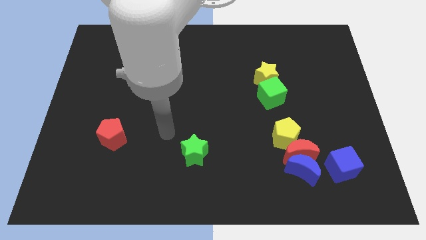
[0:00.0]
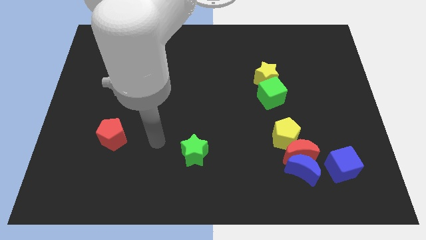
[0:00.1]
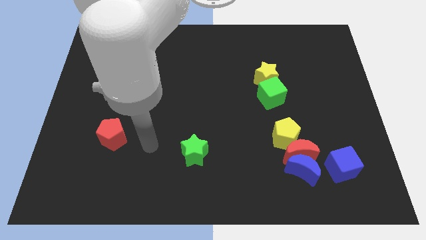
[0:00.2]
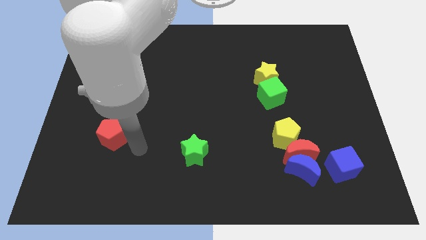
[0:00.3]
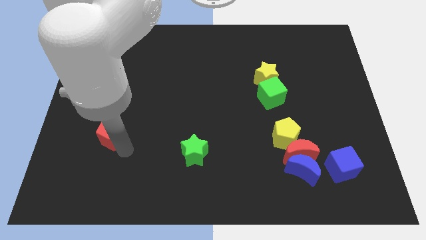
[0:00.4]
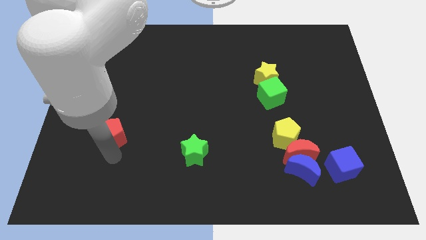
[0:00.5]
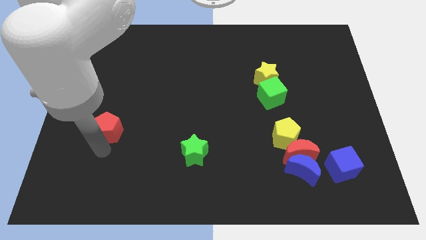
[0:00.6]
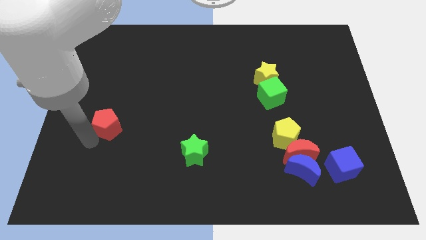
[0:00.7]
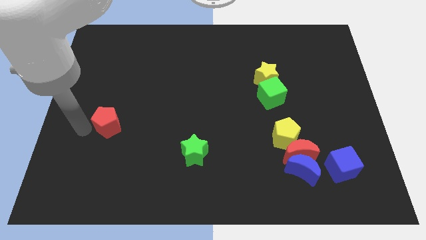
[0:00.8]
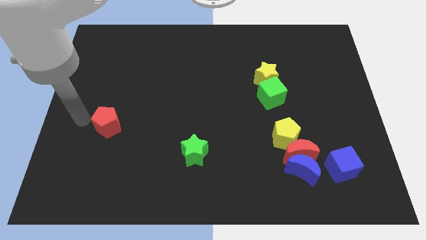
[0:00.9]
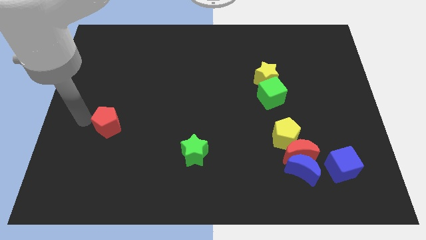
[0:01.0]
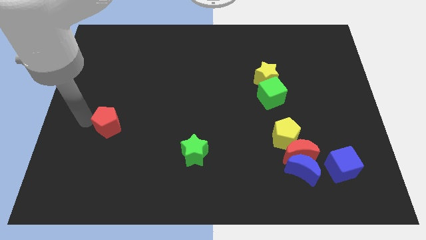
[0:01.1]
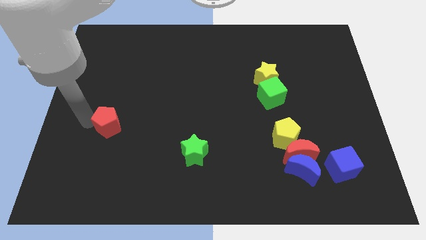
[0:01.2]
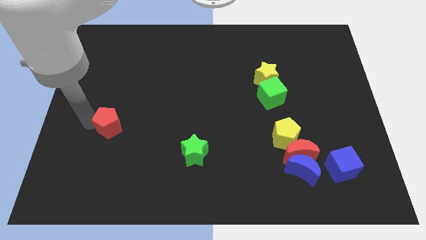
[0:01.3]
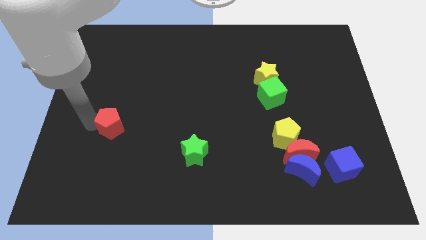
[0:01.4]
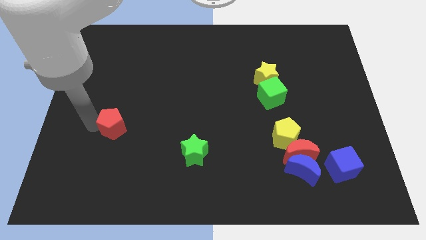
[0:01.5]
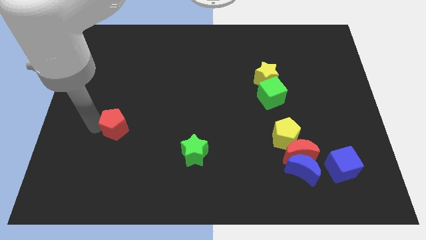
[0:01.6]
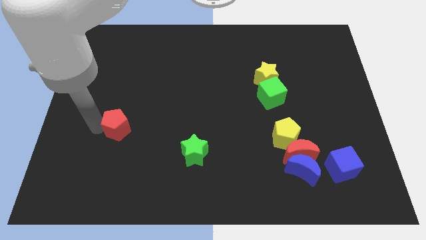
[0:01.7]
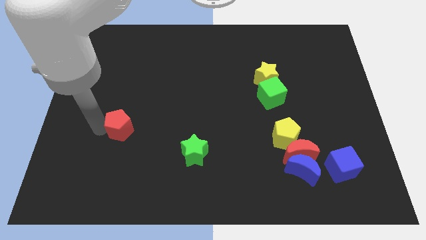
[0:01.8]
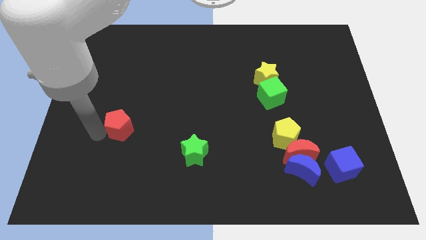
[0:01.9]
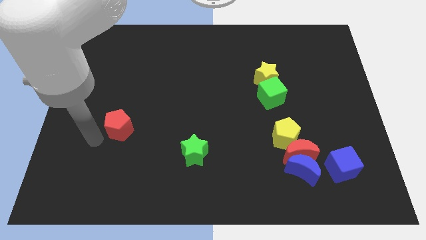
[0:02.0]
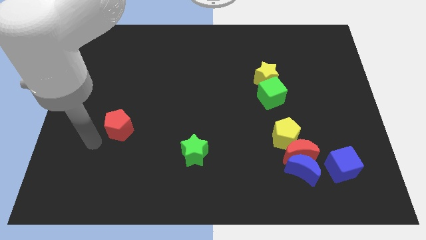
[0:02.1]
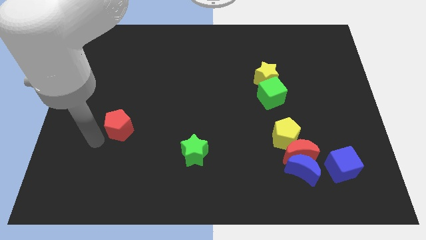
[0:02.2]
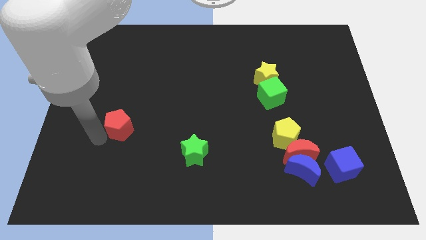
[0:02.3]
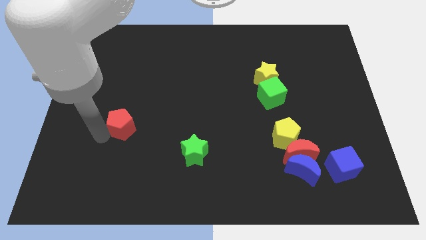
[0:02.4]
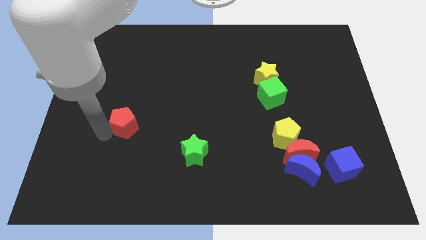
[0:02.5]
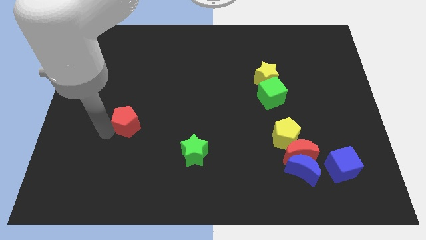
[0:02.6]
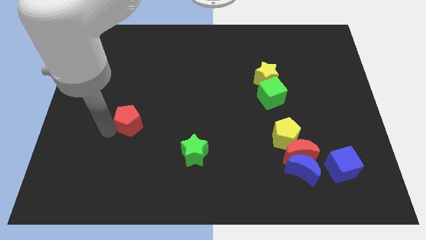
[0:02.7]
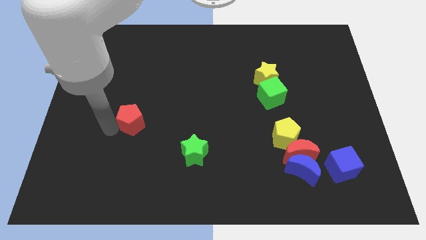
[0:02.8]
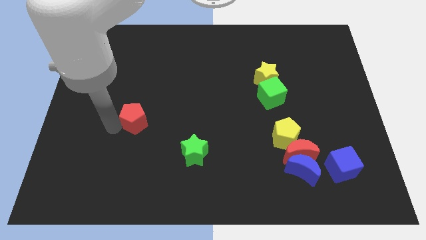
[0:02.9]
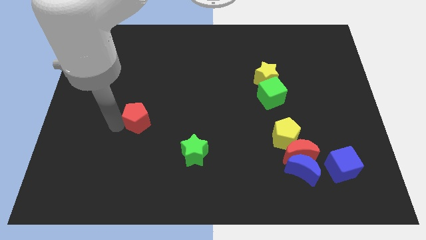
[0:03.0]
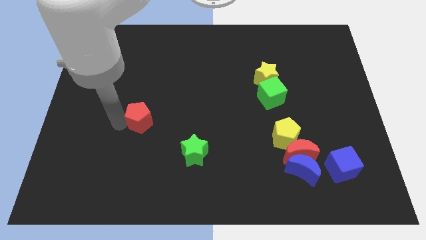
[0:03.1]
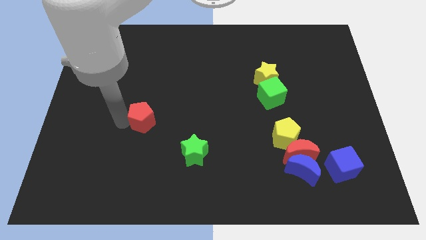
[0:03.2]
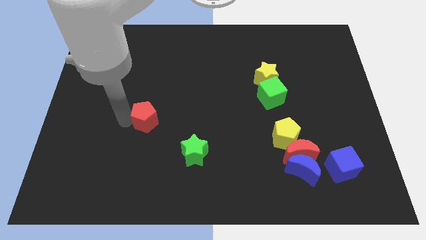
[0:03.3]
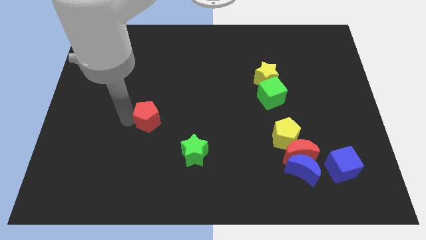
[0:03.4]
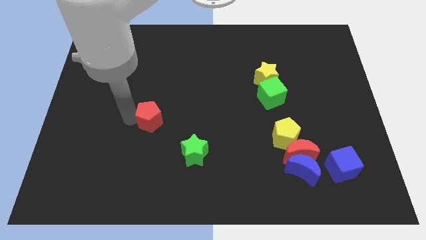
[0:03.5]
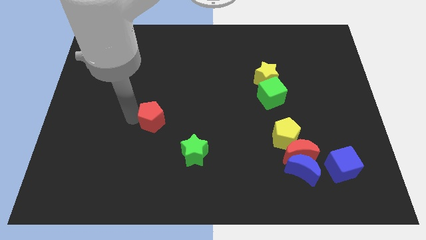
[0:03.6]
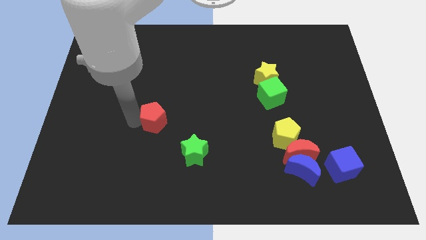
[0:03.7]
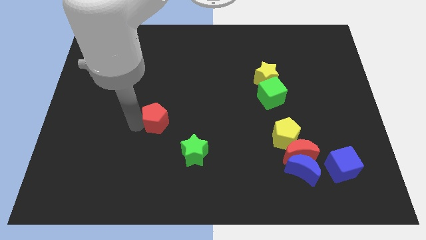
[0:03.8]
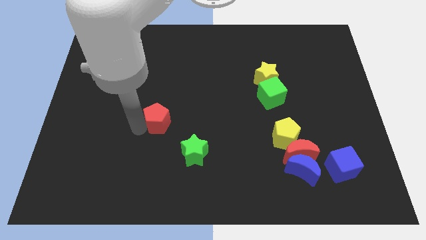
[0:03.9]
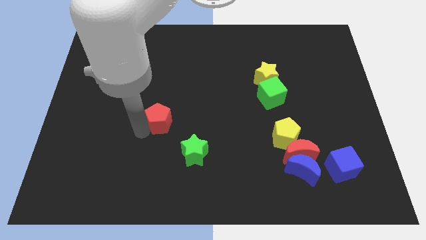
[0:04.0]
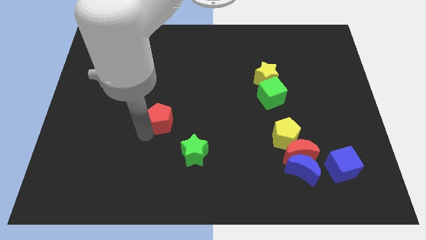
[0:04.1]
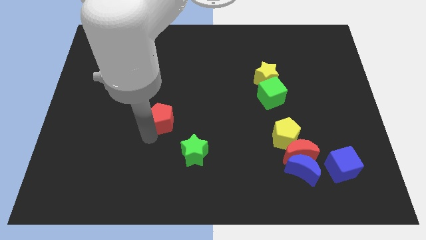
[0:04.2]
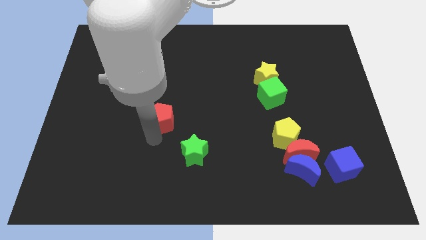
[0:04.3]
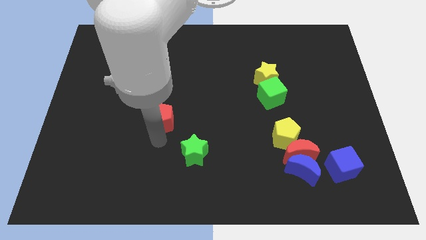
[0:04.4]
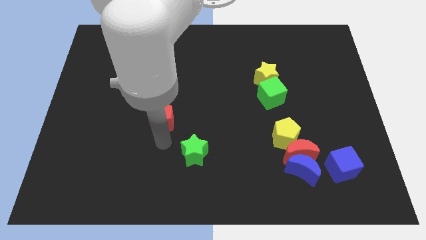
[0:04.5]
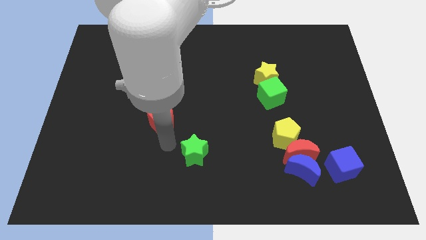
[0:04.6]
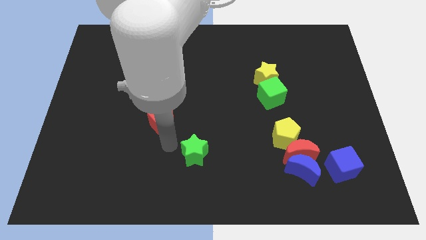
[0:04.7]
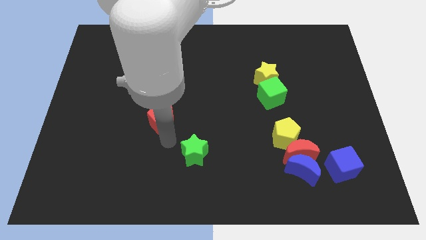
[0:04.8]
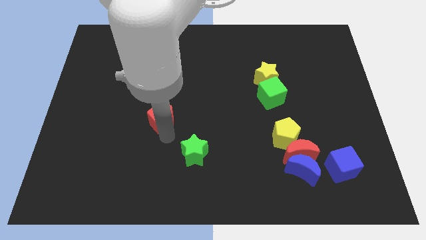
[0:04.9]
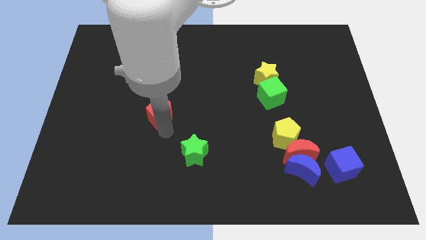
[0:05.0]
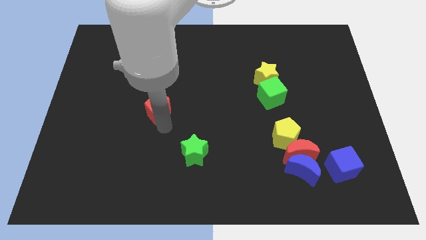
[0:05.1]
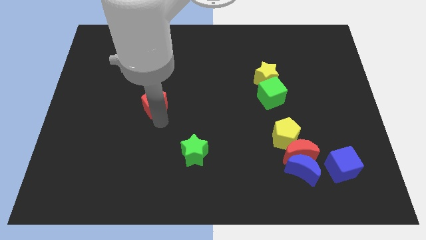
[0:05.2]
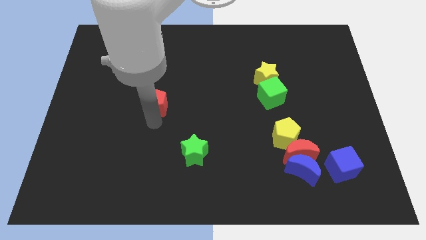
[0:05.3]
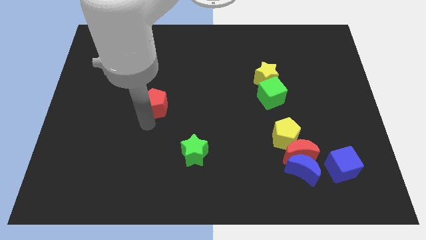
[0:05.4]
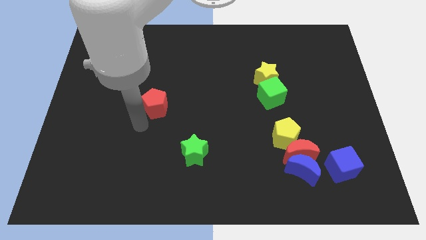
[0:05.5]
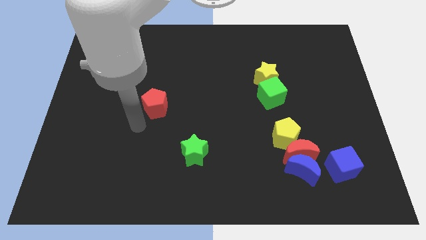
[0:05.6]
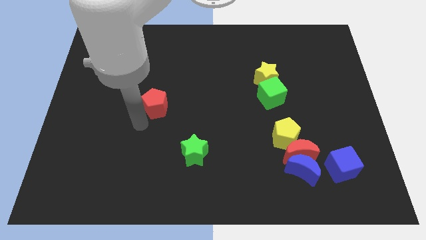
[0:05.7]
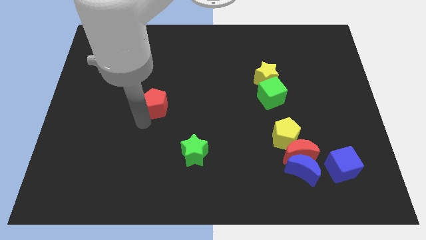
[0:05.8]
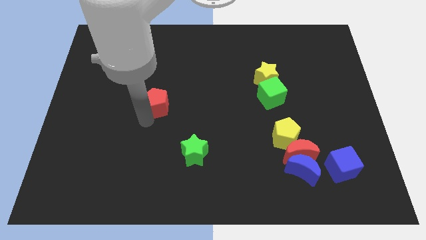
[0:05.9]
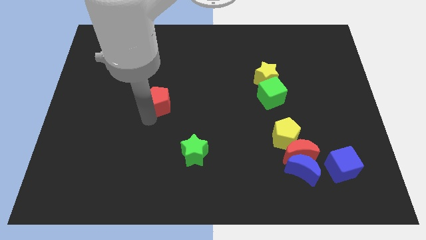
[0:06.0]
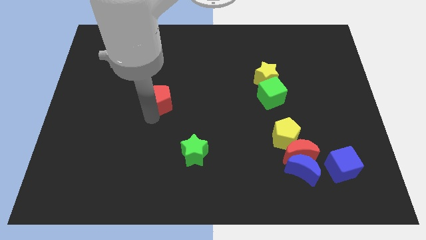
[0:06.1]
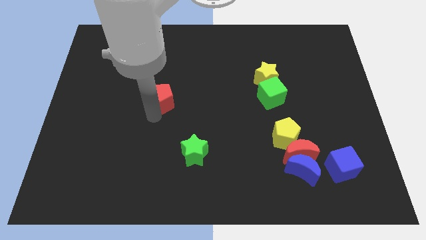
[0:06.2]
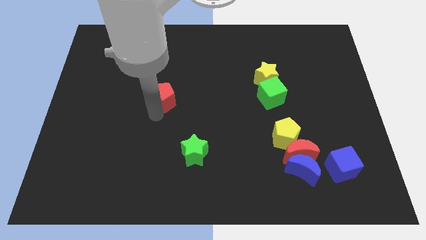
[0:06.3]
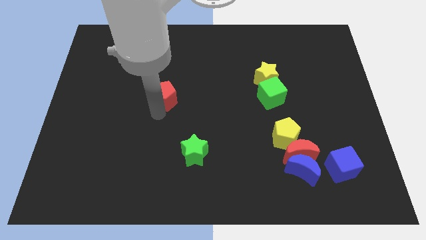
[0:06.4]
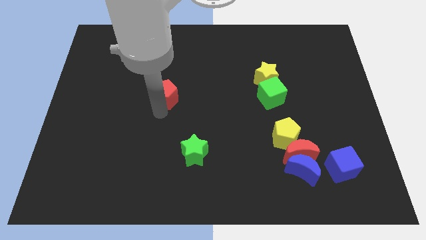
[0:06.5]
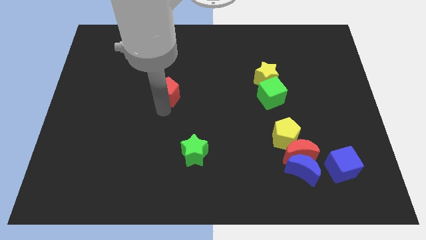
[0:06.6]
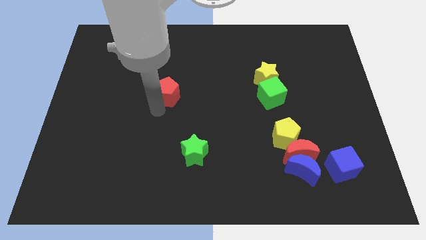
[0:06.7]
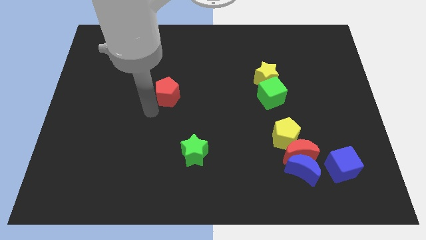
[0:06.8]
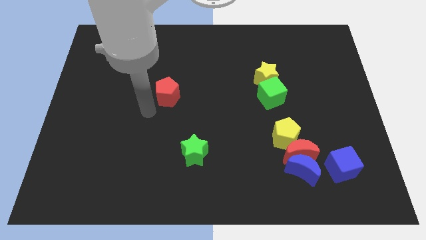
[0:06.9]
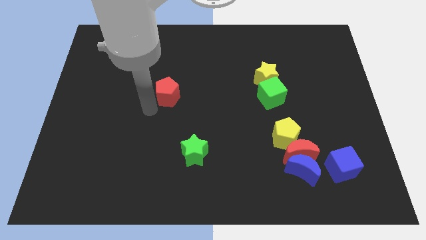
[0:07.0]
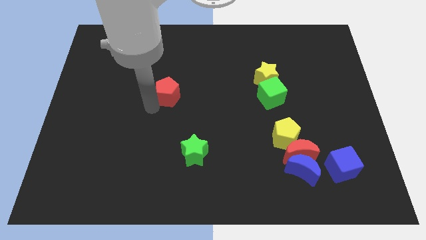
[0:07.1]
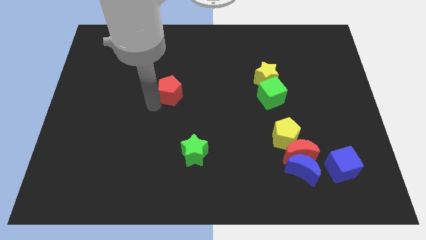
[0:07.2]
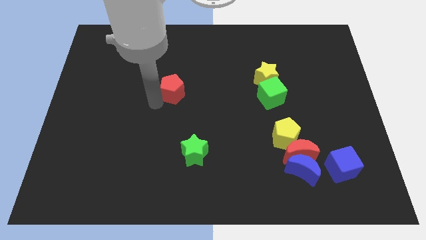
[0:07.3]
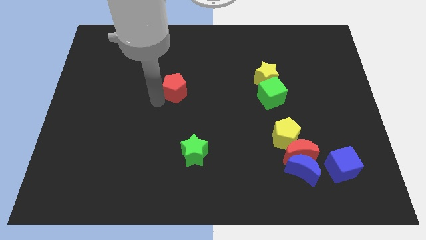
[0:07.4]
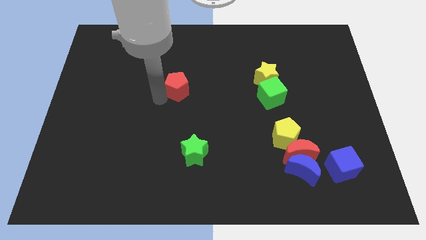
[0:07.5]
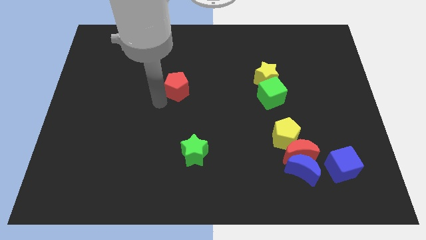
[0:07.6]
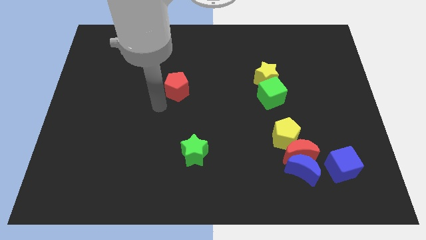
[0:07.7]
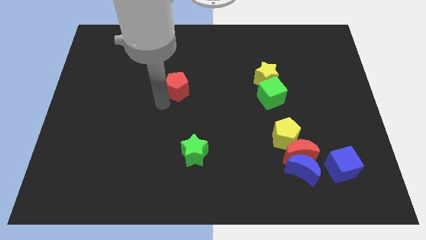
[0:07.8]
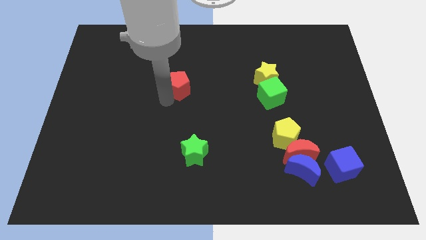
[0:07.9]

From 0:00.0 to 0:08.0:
push the red pentagon upwards and then right
